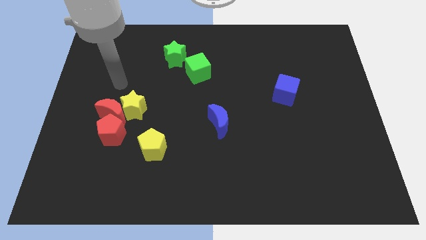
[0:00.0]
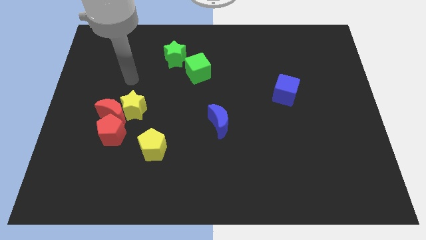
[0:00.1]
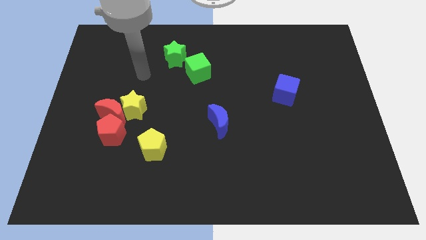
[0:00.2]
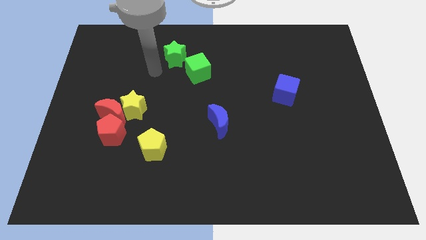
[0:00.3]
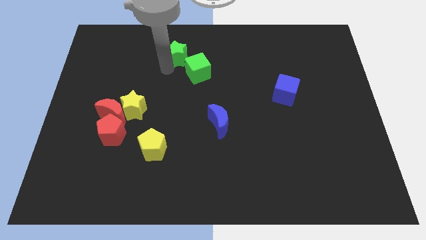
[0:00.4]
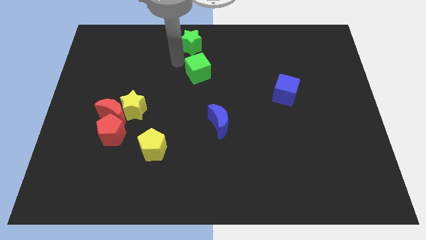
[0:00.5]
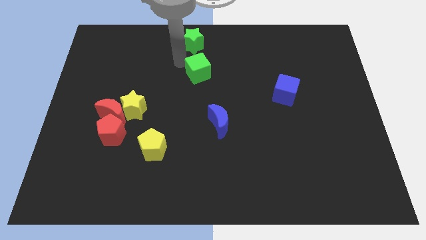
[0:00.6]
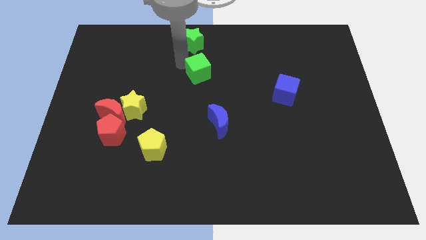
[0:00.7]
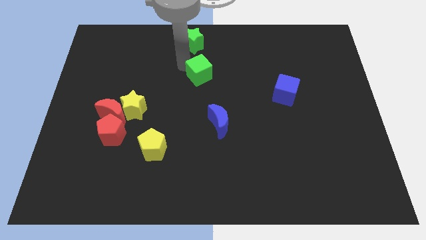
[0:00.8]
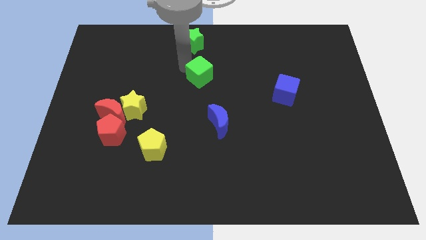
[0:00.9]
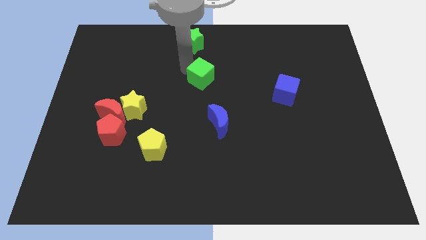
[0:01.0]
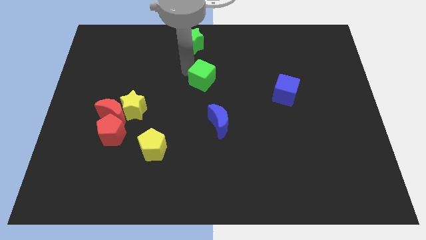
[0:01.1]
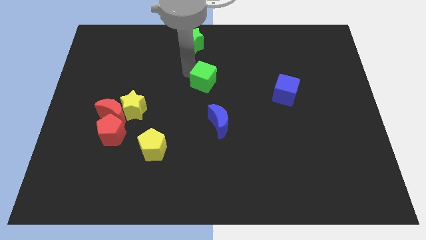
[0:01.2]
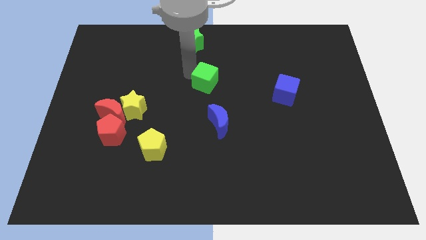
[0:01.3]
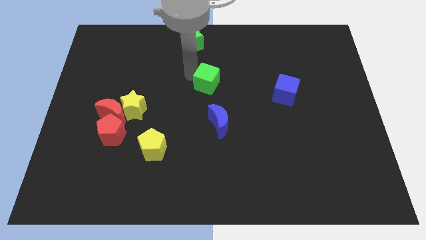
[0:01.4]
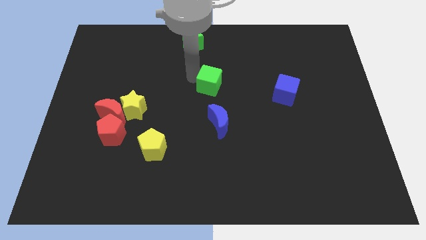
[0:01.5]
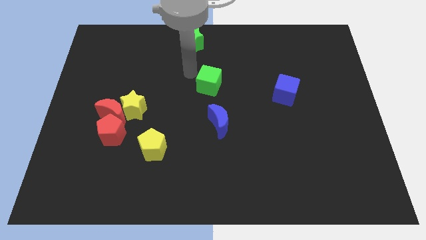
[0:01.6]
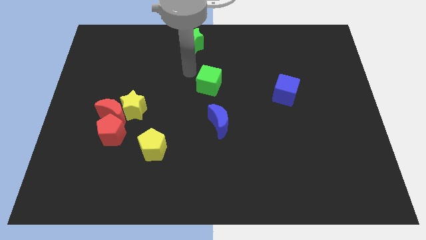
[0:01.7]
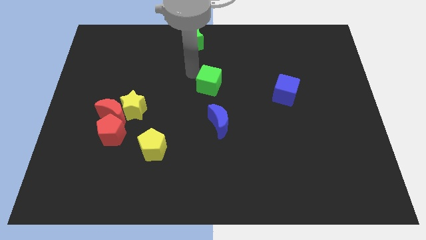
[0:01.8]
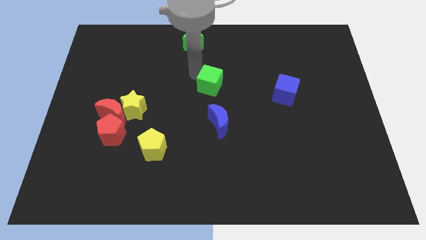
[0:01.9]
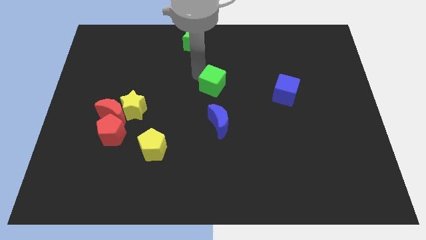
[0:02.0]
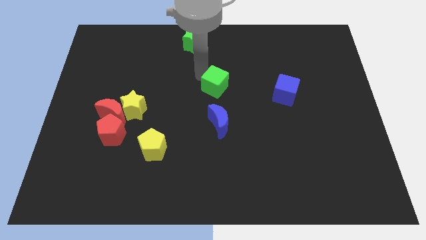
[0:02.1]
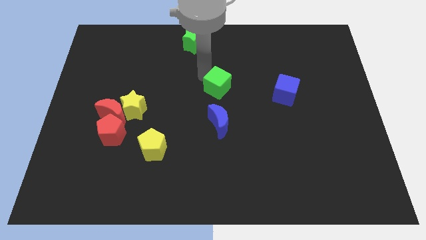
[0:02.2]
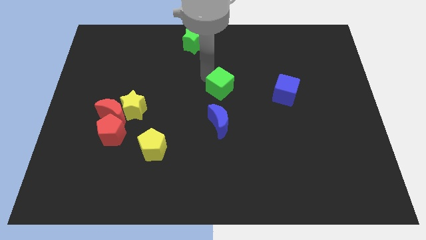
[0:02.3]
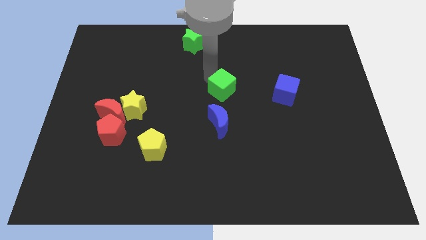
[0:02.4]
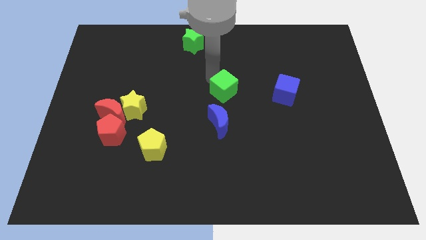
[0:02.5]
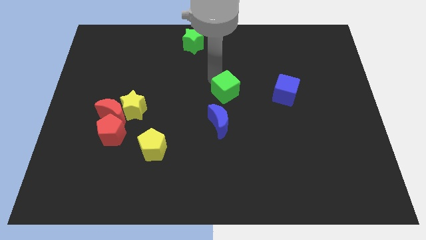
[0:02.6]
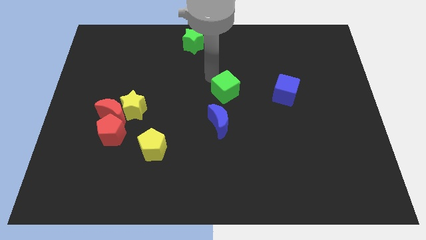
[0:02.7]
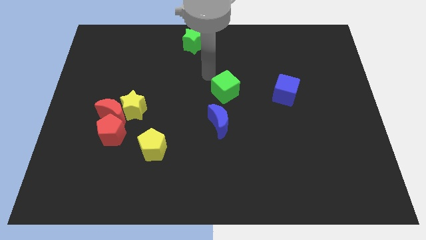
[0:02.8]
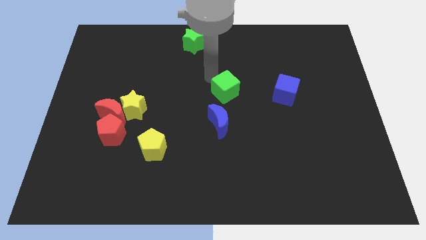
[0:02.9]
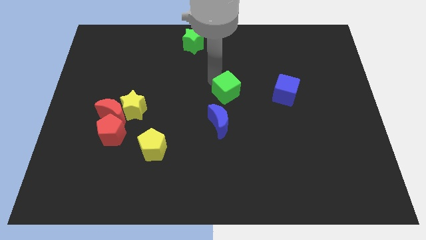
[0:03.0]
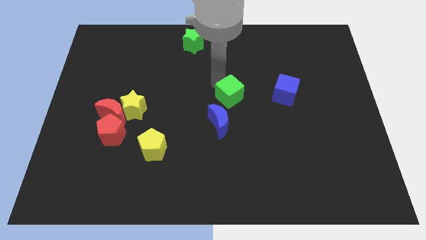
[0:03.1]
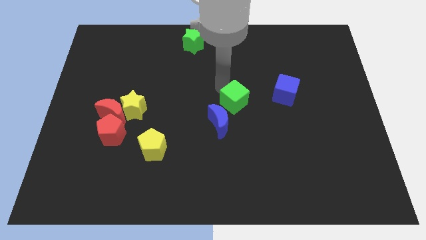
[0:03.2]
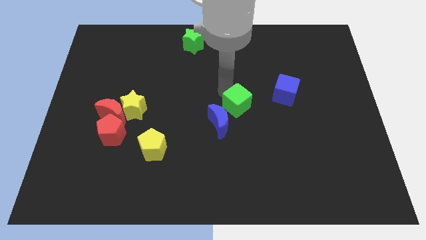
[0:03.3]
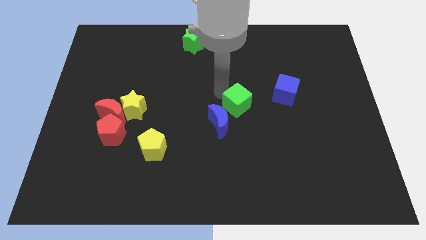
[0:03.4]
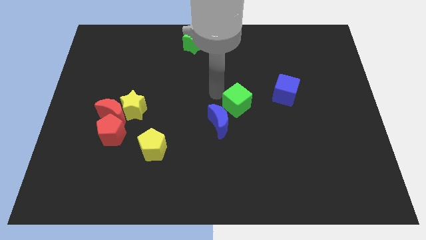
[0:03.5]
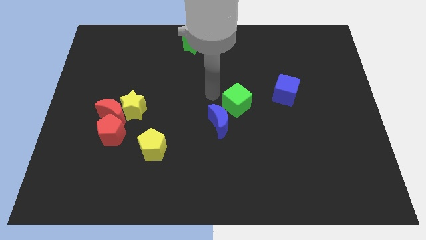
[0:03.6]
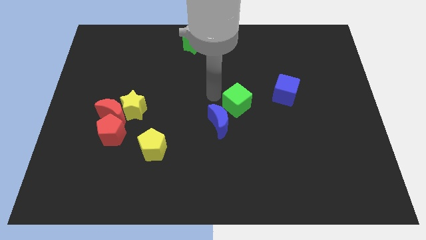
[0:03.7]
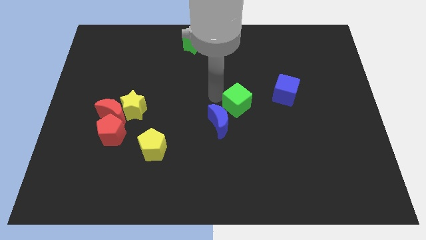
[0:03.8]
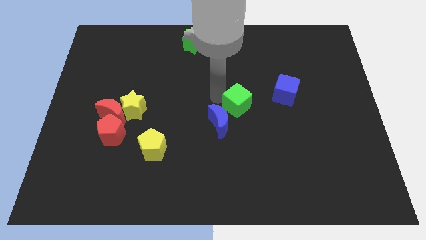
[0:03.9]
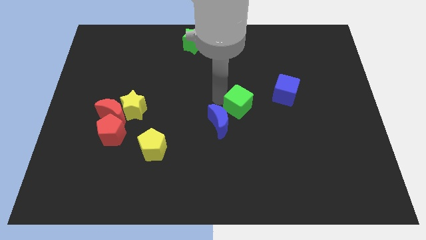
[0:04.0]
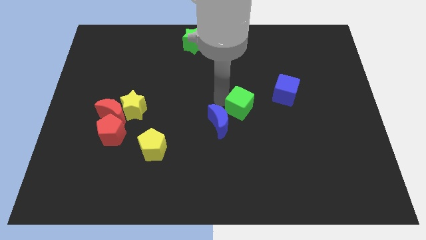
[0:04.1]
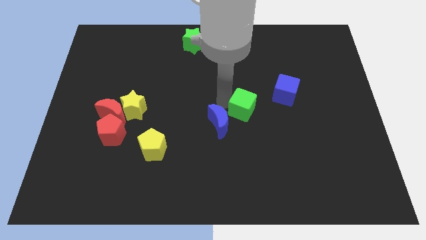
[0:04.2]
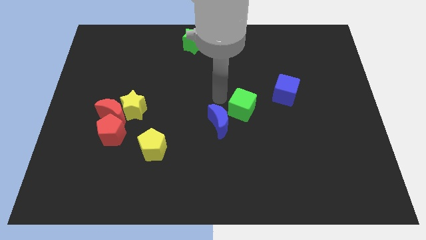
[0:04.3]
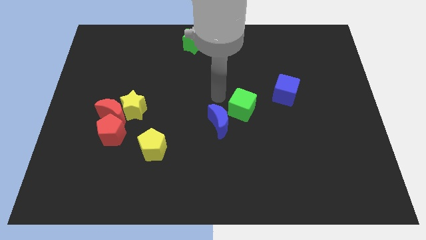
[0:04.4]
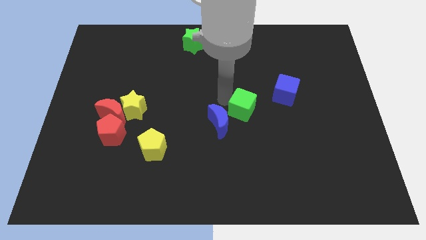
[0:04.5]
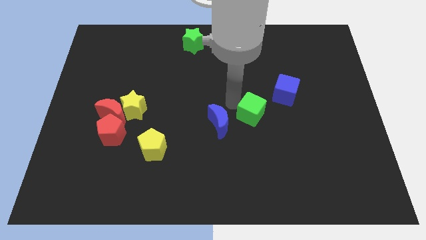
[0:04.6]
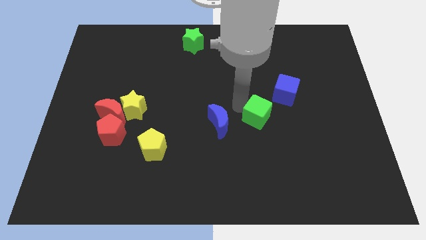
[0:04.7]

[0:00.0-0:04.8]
push the green cube down and then to the right

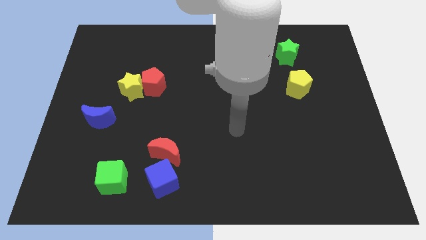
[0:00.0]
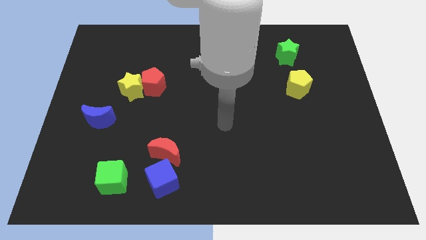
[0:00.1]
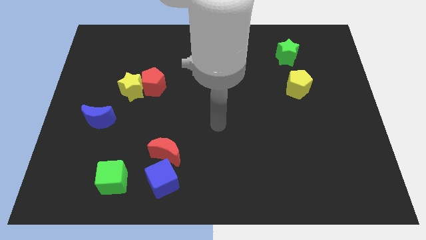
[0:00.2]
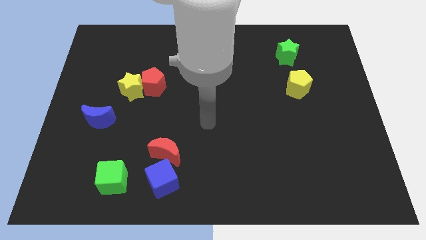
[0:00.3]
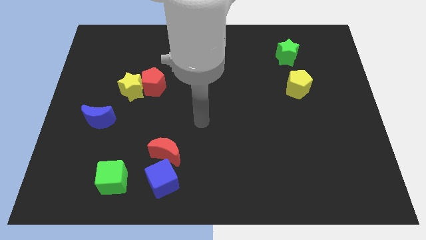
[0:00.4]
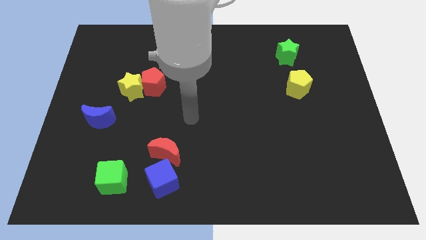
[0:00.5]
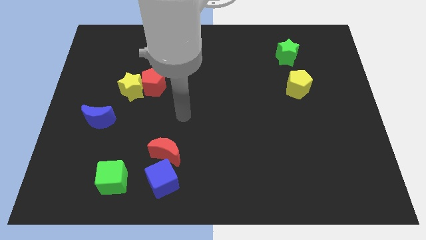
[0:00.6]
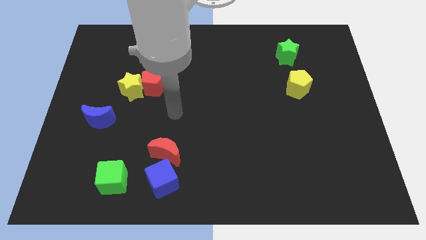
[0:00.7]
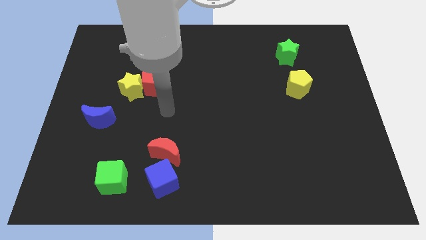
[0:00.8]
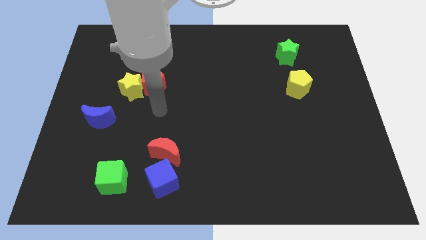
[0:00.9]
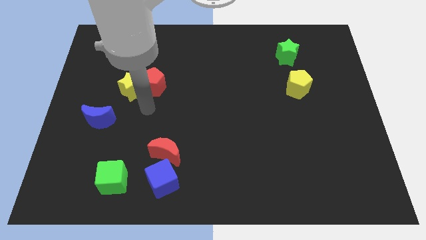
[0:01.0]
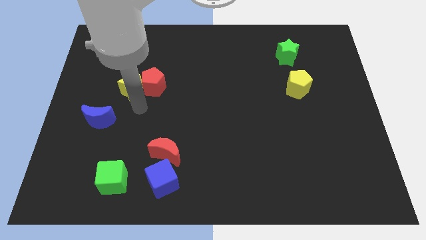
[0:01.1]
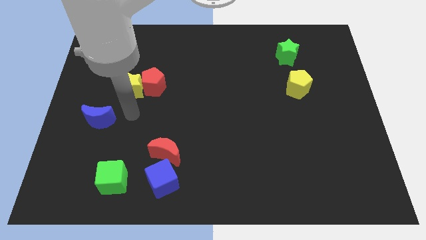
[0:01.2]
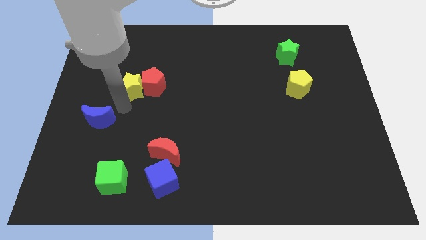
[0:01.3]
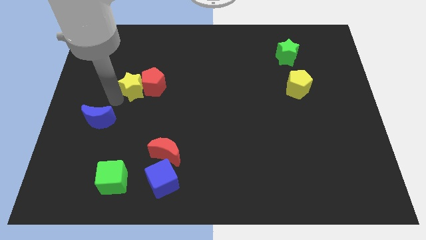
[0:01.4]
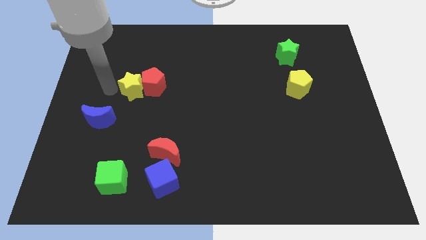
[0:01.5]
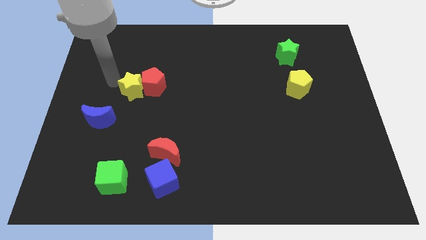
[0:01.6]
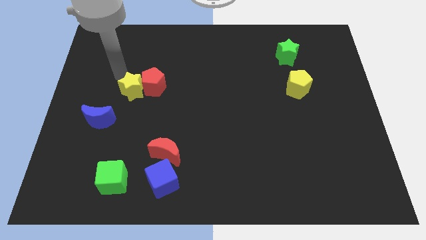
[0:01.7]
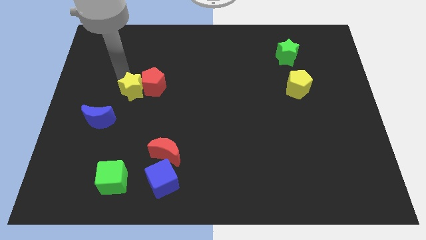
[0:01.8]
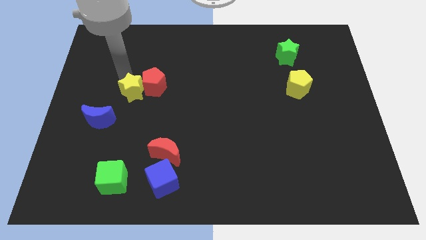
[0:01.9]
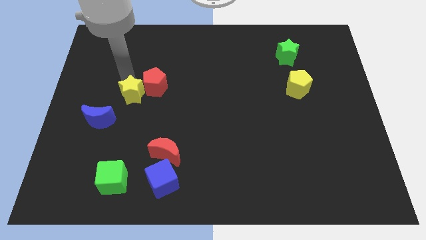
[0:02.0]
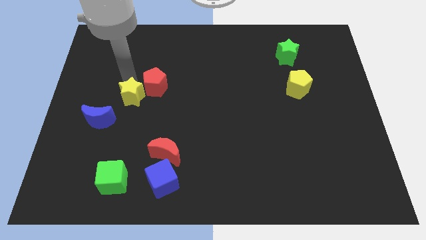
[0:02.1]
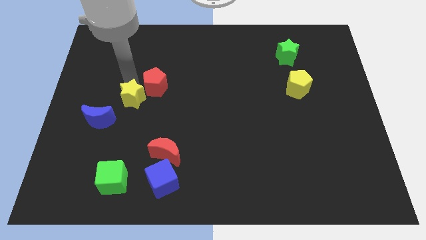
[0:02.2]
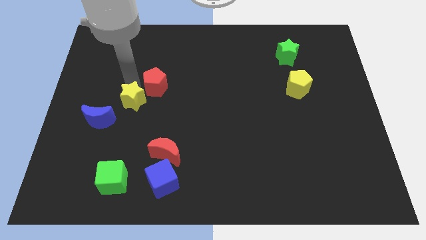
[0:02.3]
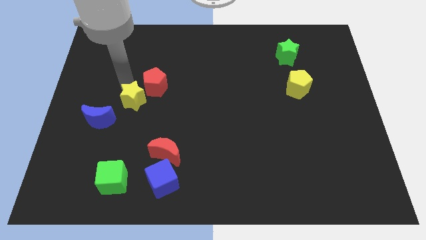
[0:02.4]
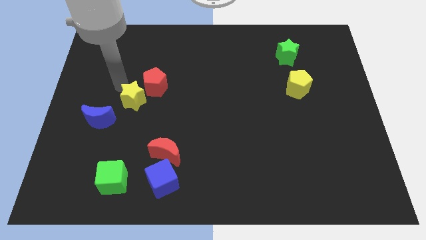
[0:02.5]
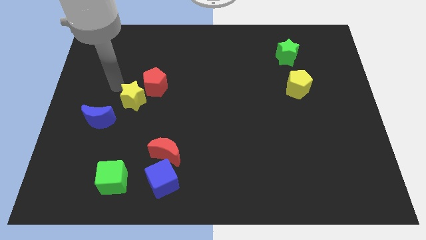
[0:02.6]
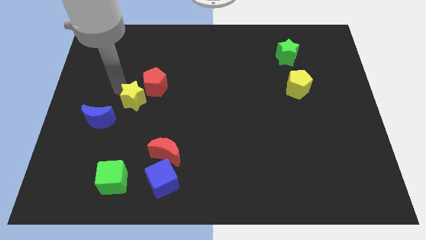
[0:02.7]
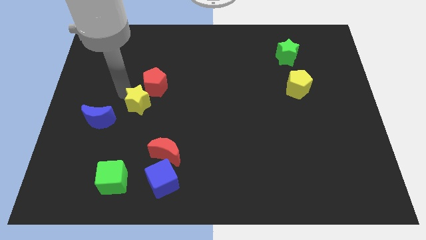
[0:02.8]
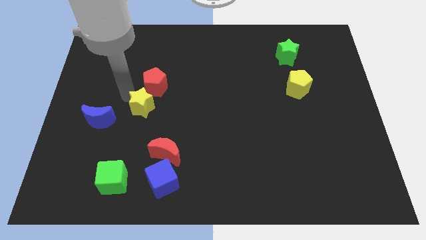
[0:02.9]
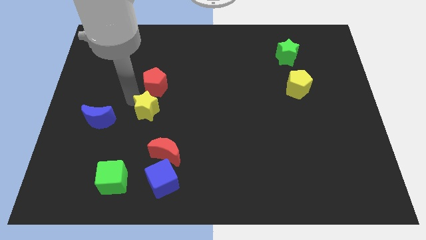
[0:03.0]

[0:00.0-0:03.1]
slide the yellow star down and then right a little bit
